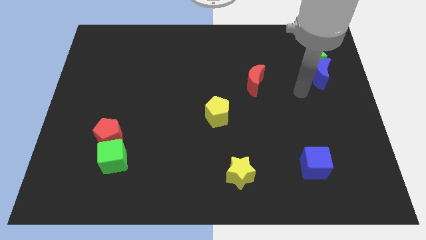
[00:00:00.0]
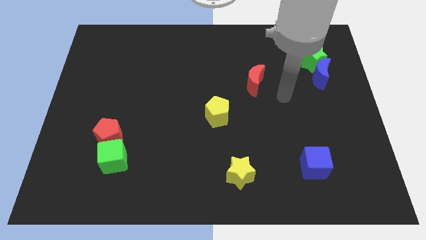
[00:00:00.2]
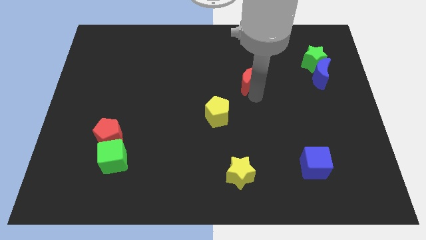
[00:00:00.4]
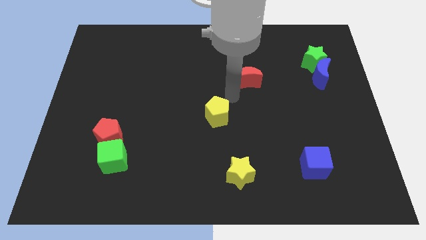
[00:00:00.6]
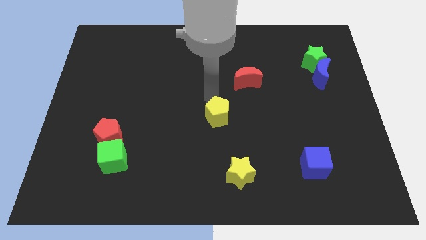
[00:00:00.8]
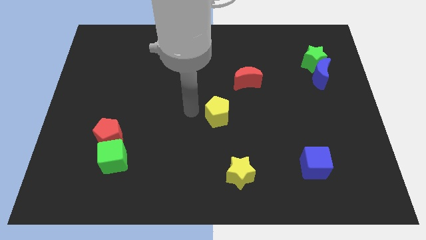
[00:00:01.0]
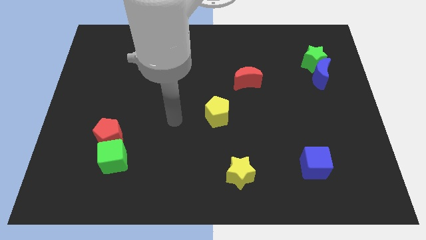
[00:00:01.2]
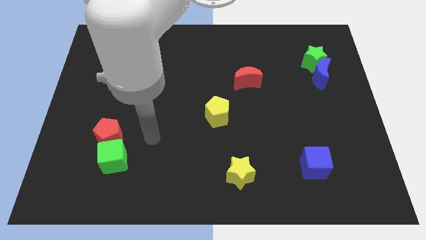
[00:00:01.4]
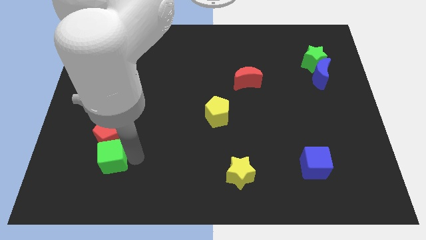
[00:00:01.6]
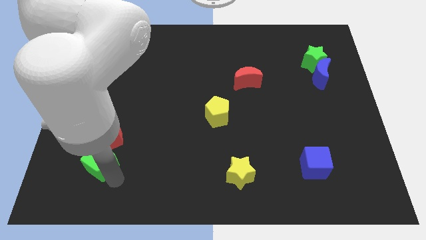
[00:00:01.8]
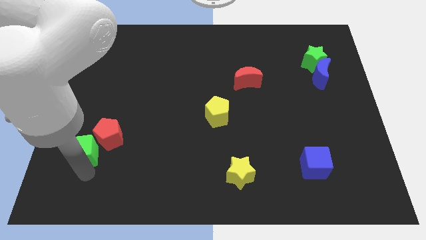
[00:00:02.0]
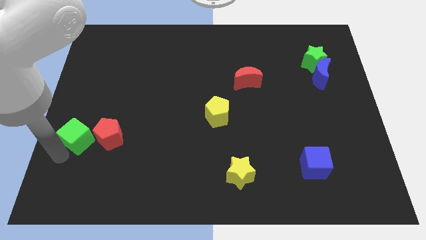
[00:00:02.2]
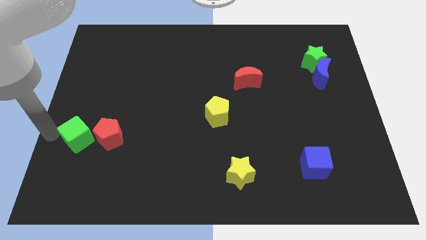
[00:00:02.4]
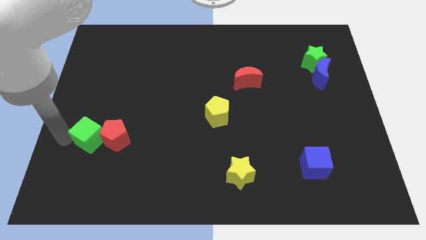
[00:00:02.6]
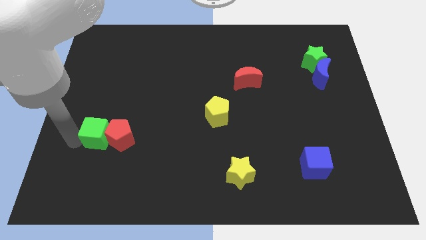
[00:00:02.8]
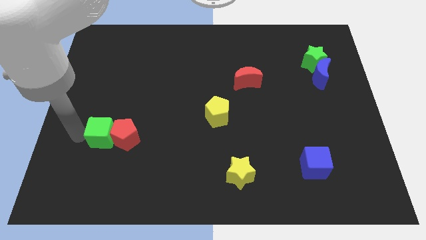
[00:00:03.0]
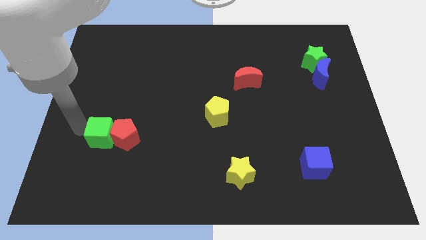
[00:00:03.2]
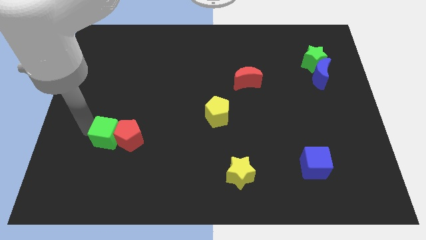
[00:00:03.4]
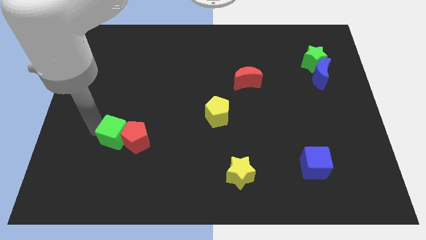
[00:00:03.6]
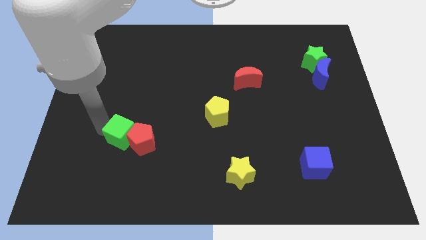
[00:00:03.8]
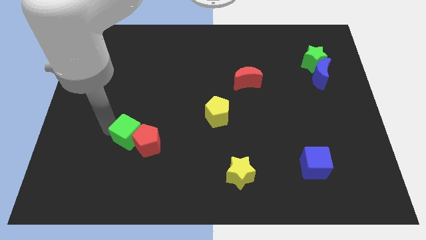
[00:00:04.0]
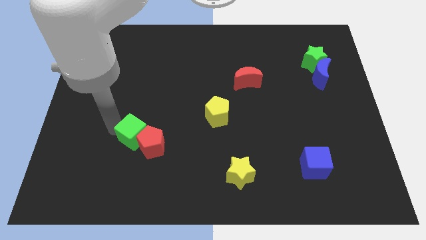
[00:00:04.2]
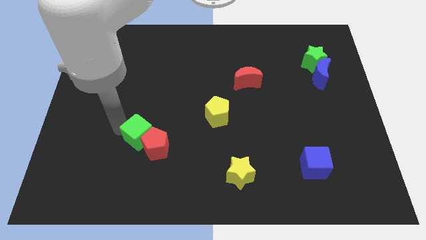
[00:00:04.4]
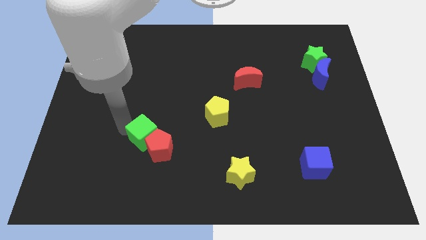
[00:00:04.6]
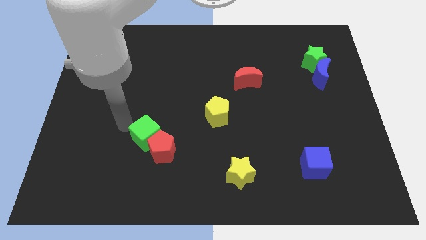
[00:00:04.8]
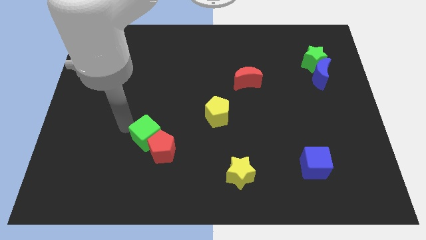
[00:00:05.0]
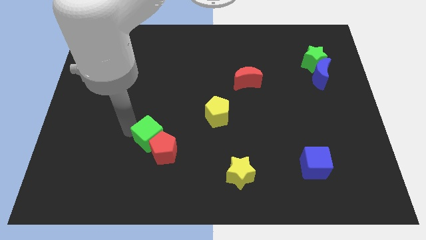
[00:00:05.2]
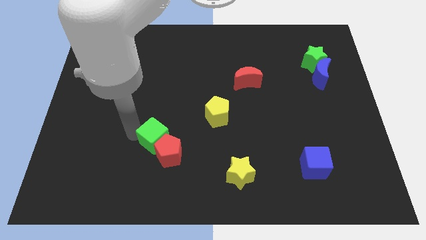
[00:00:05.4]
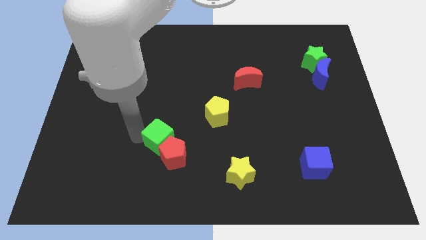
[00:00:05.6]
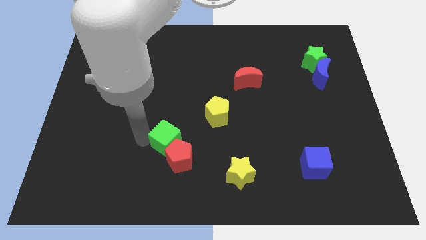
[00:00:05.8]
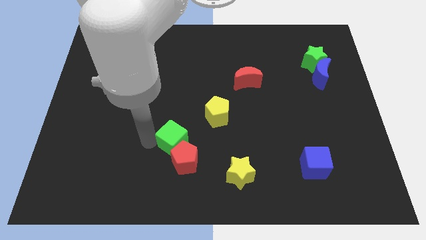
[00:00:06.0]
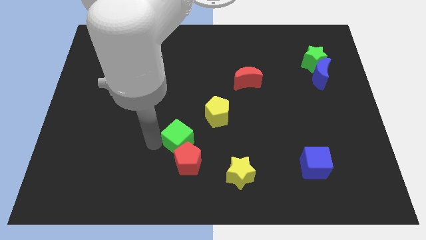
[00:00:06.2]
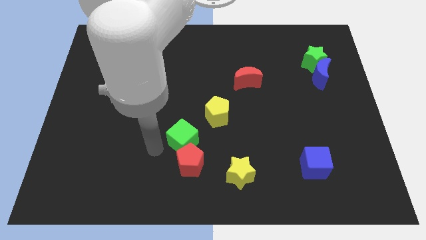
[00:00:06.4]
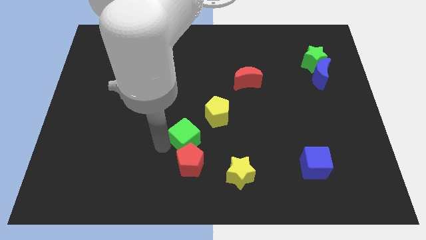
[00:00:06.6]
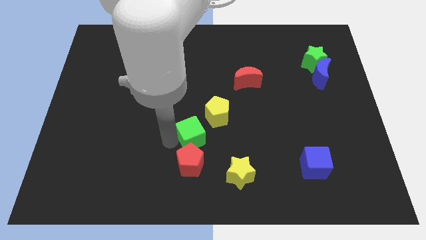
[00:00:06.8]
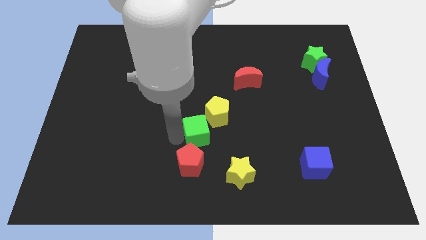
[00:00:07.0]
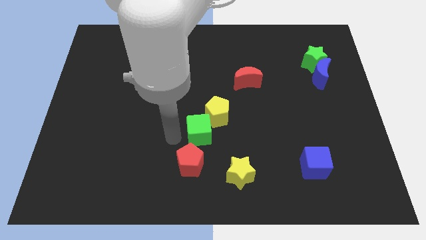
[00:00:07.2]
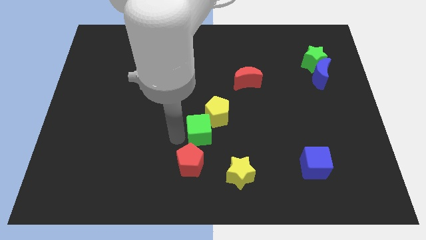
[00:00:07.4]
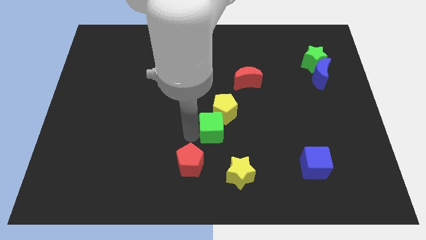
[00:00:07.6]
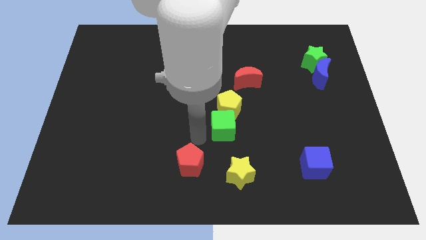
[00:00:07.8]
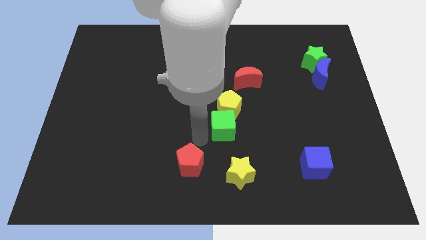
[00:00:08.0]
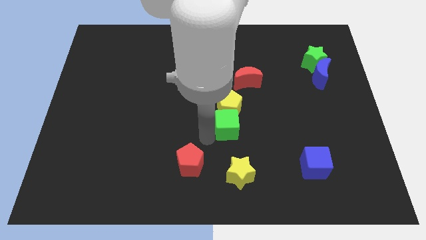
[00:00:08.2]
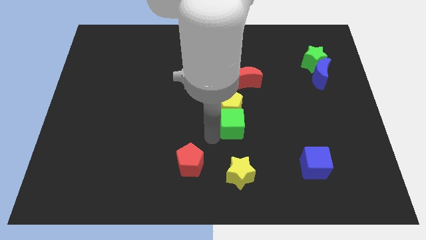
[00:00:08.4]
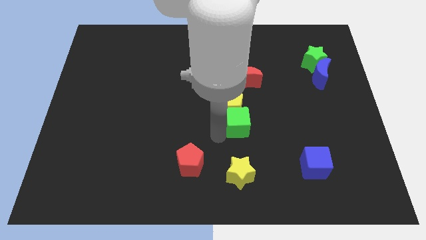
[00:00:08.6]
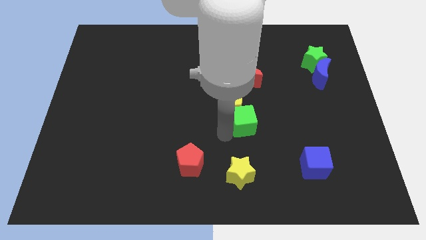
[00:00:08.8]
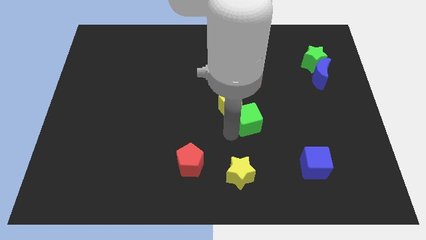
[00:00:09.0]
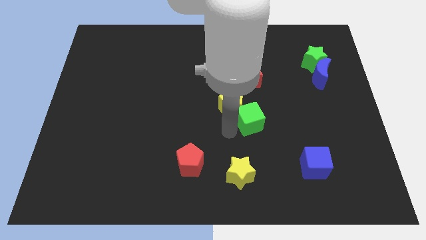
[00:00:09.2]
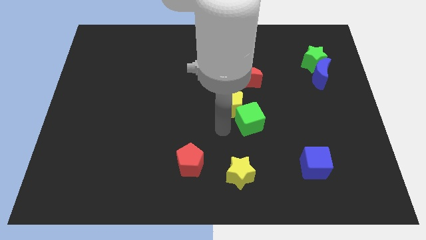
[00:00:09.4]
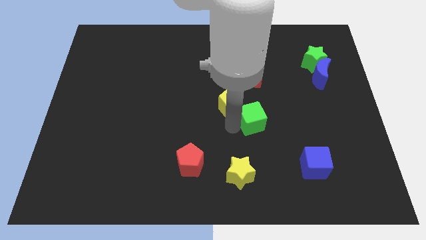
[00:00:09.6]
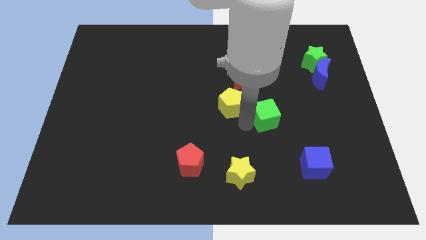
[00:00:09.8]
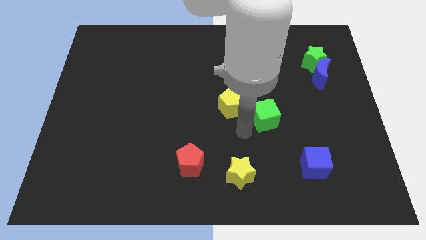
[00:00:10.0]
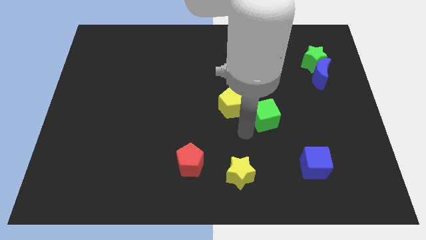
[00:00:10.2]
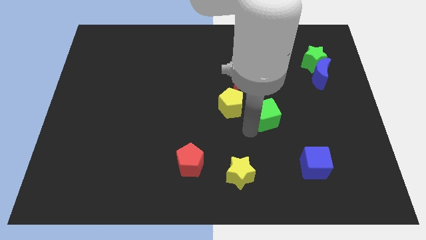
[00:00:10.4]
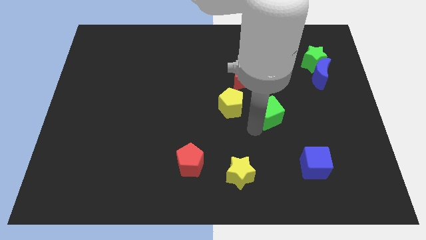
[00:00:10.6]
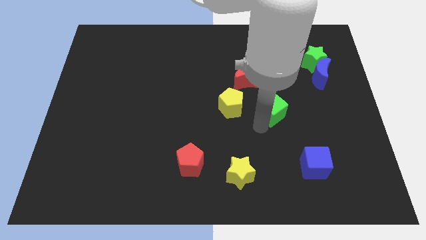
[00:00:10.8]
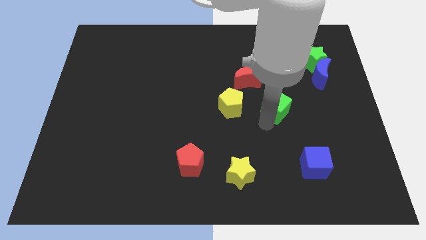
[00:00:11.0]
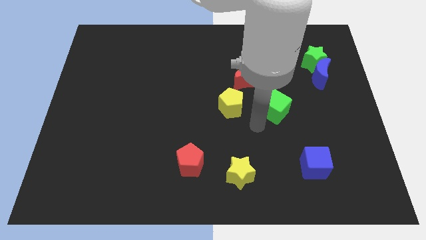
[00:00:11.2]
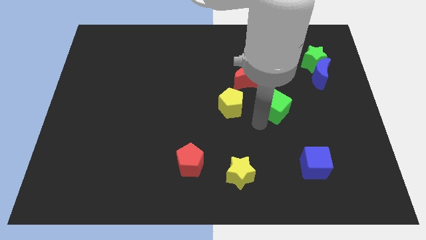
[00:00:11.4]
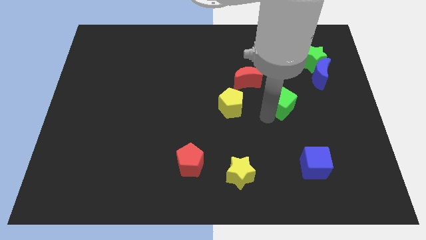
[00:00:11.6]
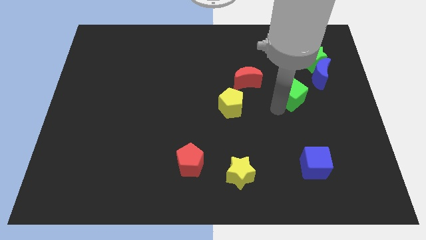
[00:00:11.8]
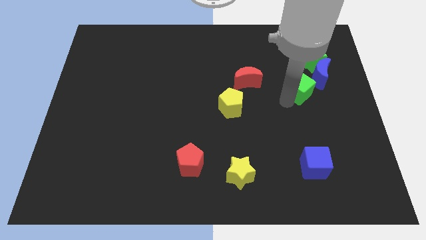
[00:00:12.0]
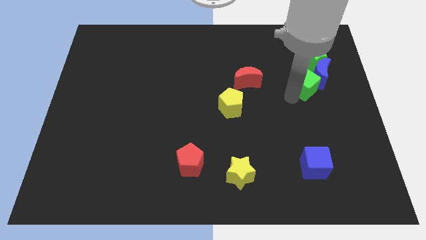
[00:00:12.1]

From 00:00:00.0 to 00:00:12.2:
put the green cube towards the blue moon

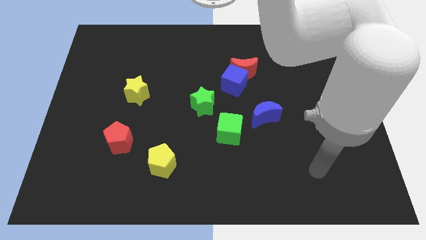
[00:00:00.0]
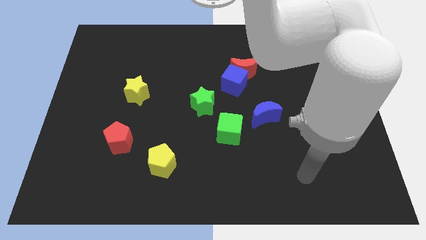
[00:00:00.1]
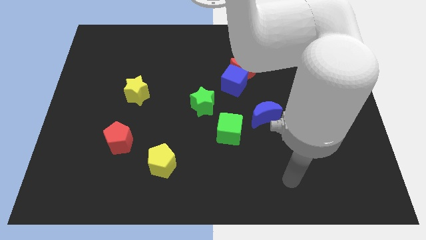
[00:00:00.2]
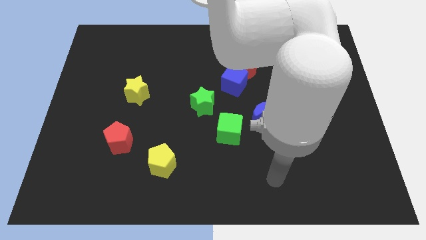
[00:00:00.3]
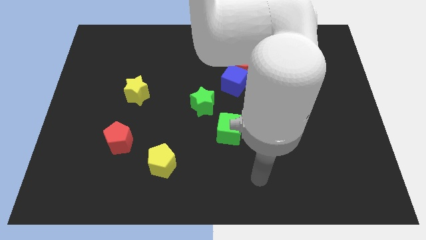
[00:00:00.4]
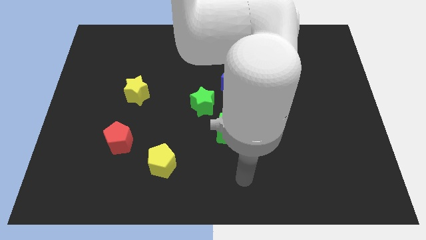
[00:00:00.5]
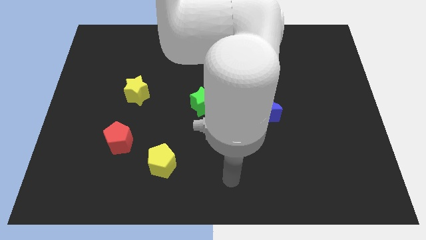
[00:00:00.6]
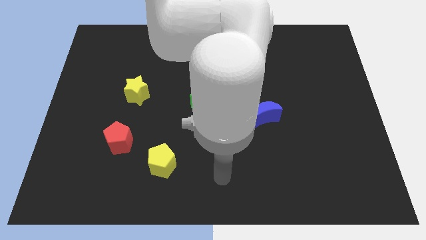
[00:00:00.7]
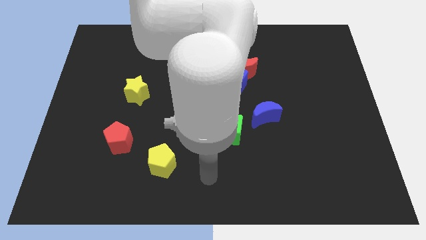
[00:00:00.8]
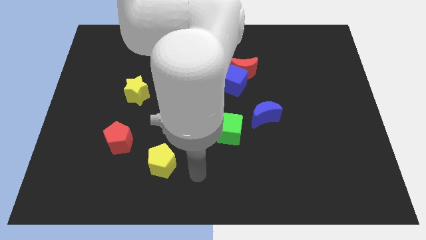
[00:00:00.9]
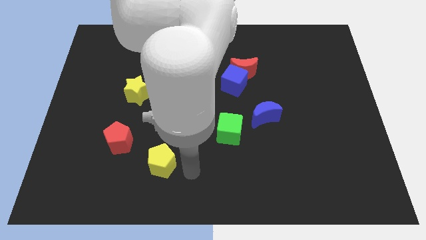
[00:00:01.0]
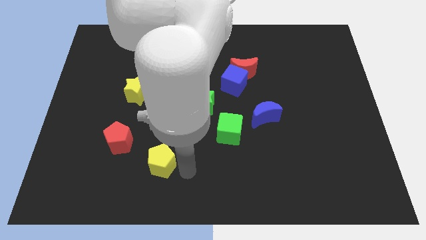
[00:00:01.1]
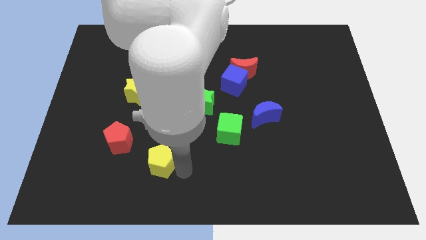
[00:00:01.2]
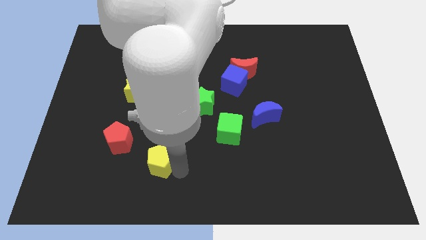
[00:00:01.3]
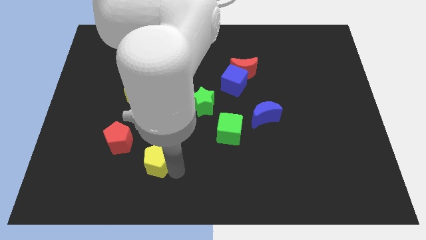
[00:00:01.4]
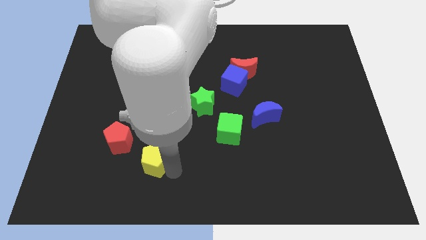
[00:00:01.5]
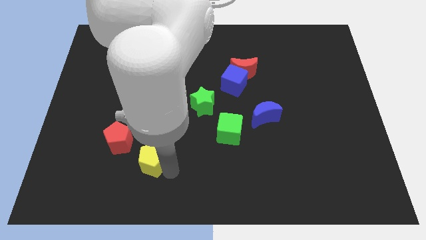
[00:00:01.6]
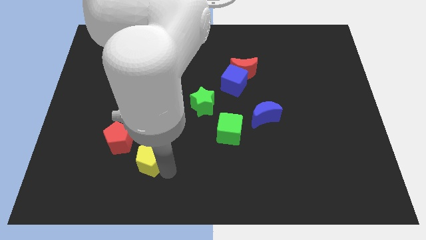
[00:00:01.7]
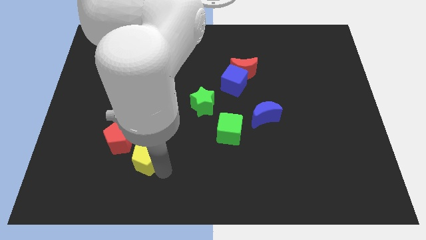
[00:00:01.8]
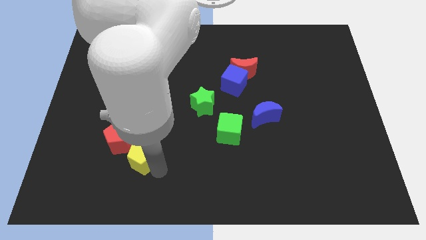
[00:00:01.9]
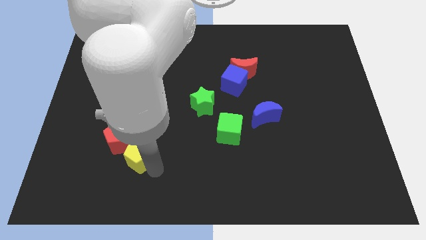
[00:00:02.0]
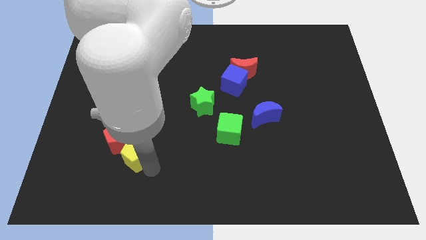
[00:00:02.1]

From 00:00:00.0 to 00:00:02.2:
push the yellow pentagon towards the red pentagon
